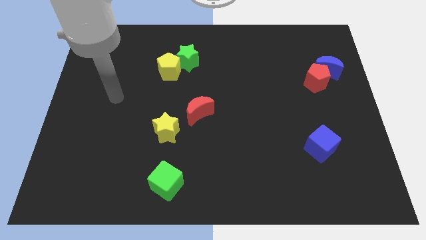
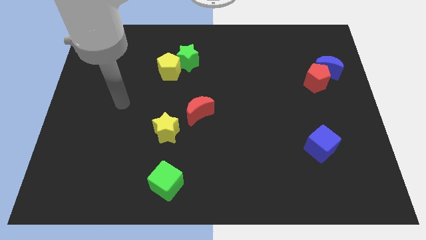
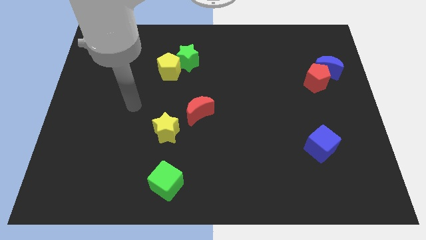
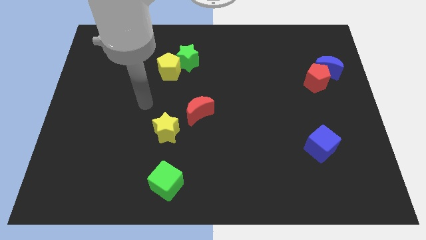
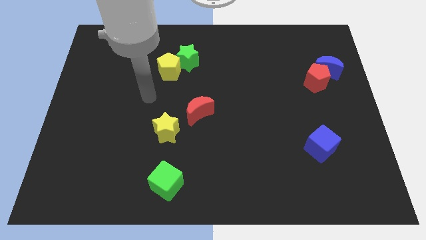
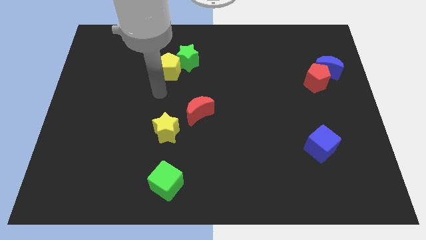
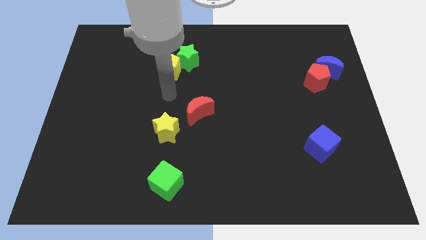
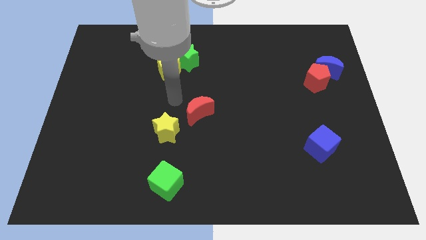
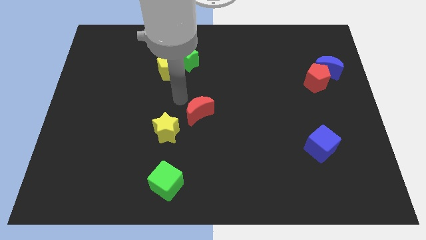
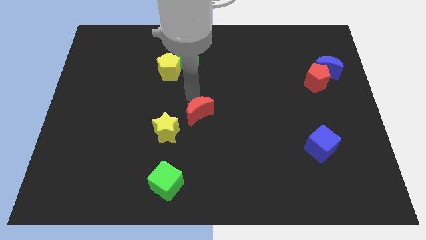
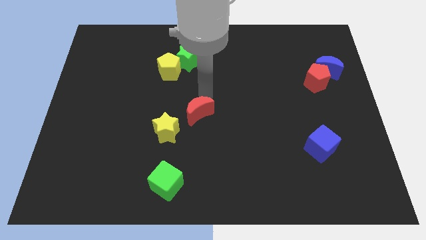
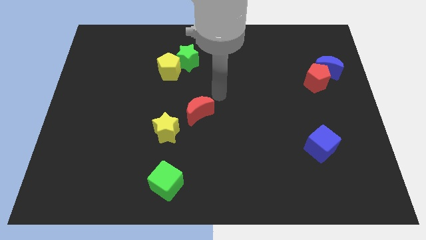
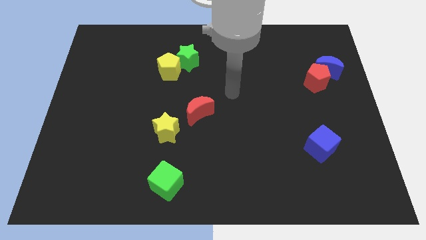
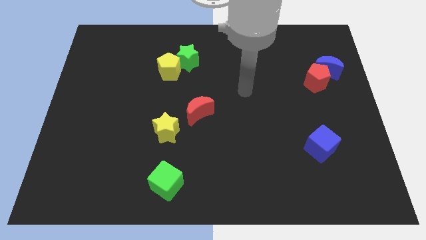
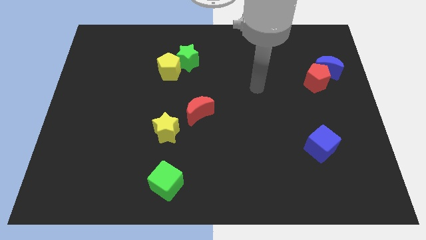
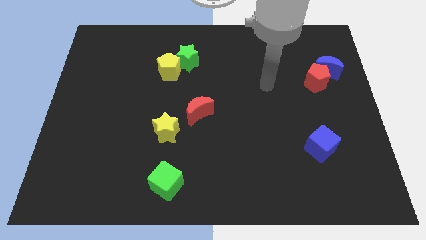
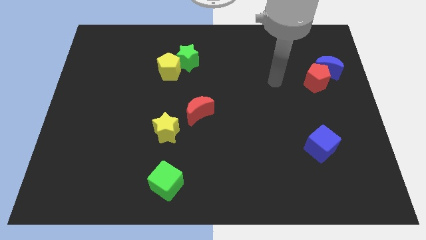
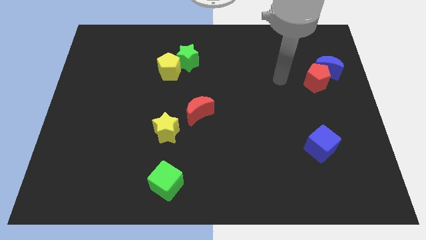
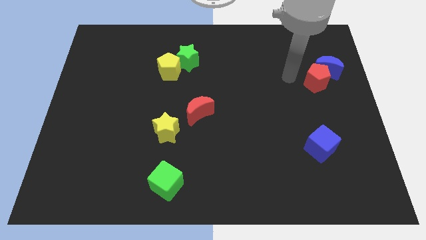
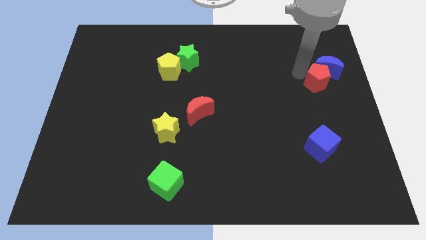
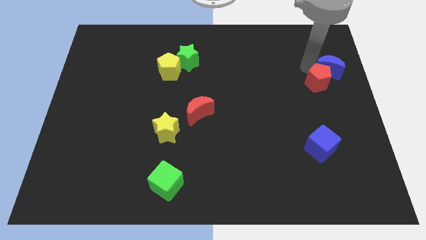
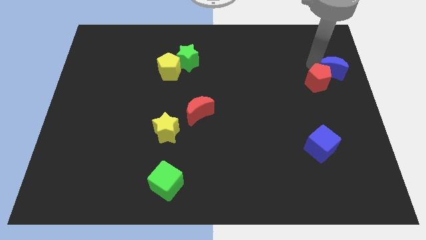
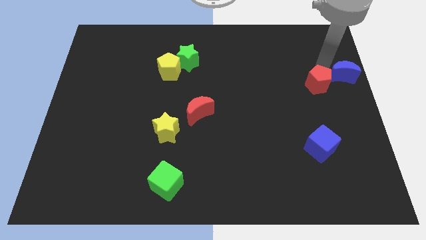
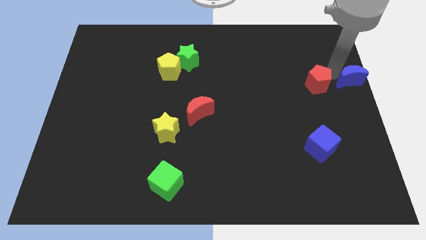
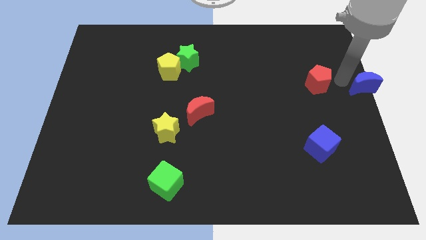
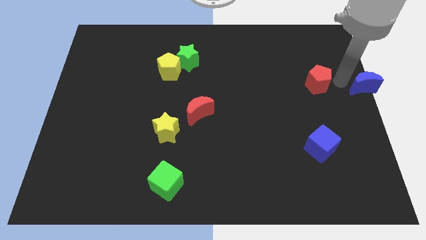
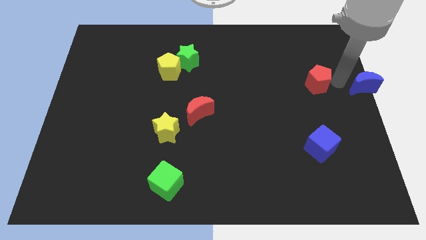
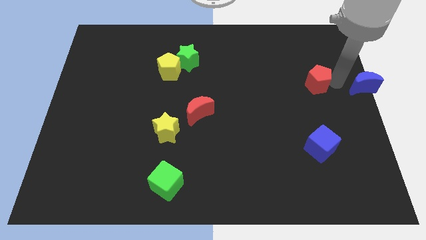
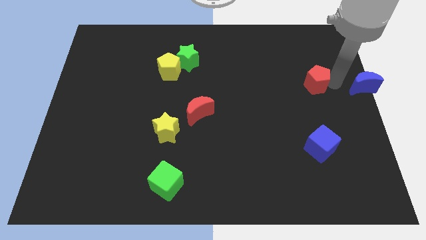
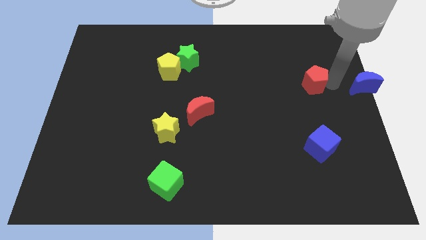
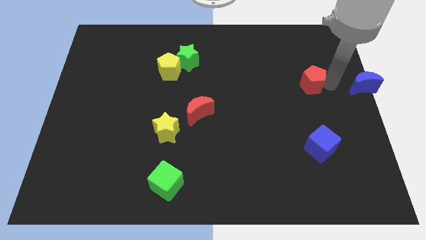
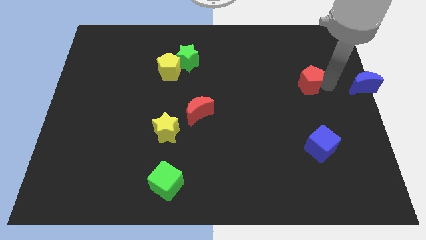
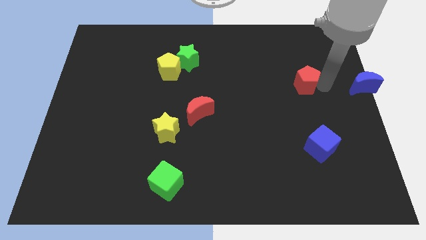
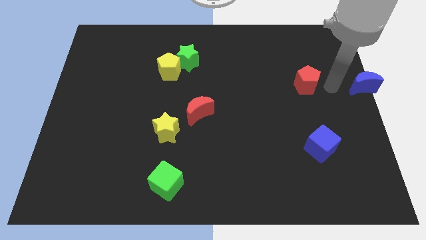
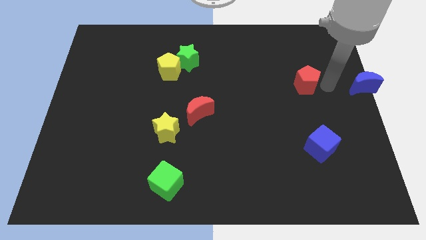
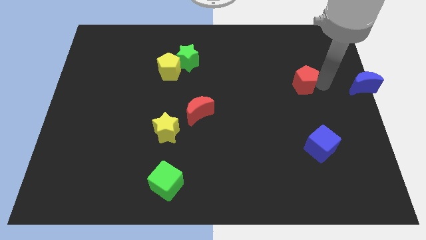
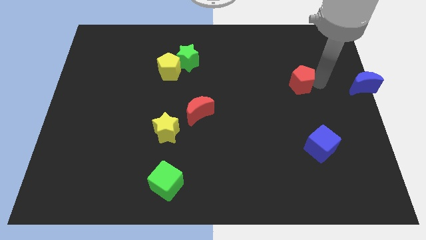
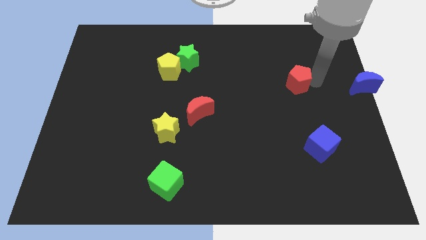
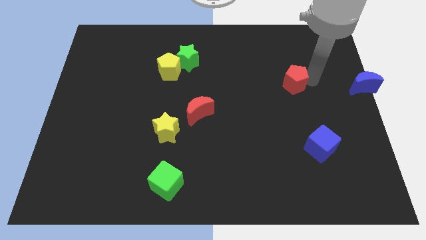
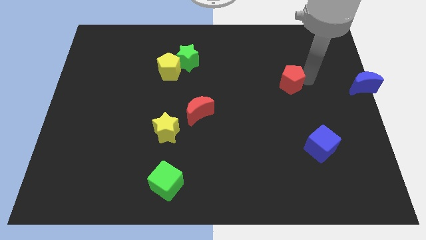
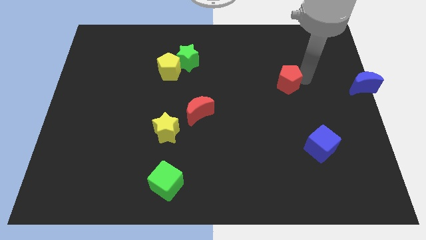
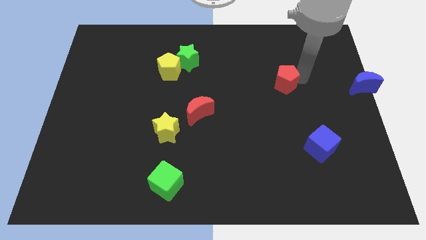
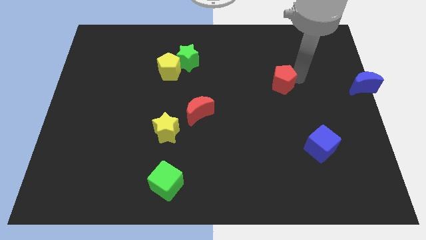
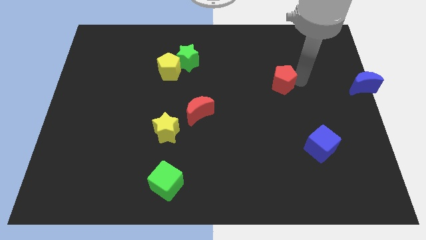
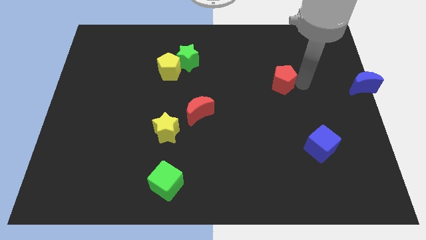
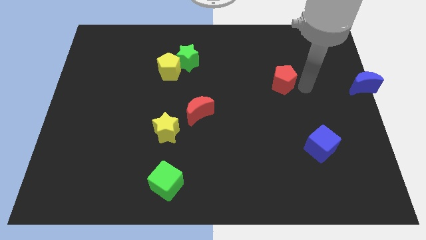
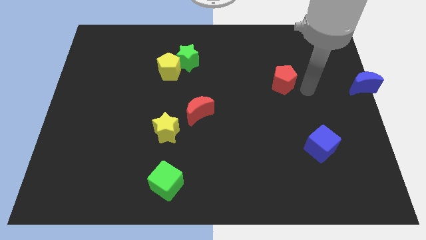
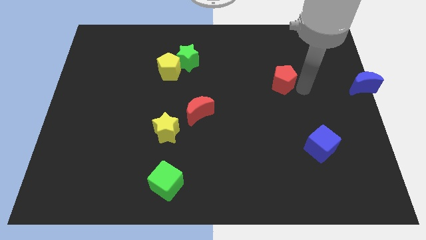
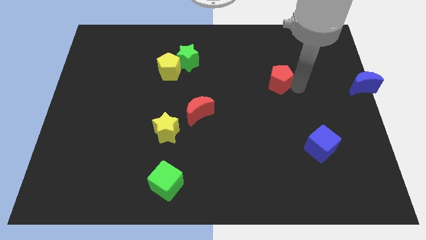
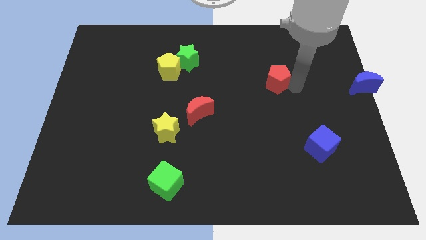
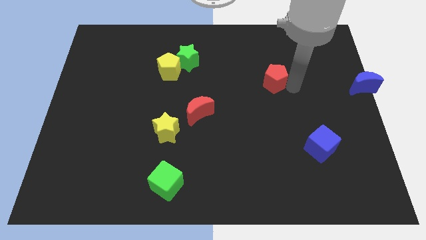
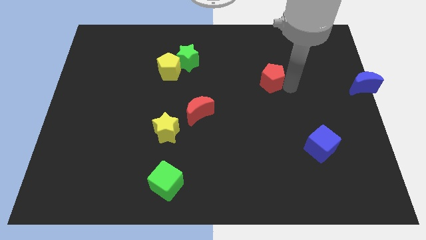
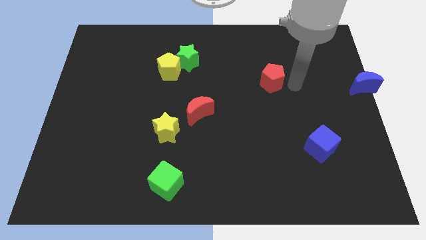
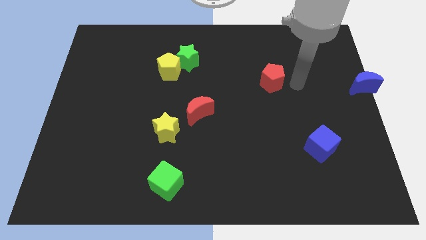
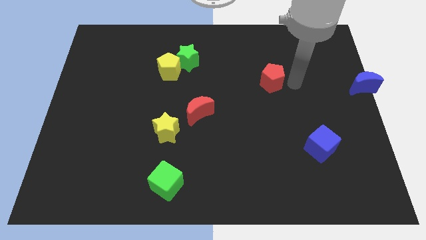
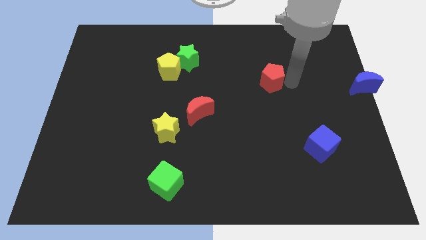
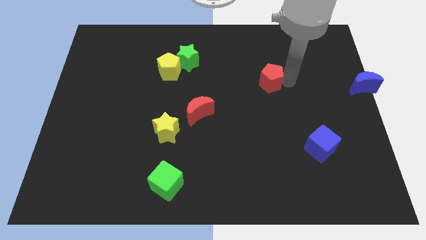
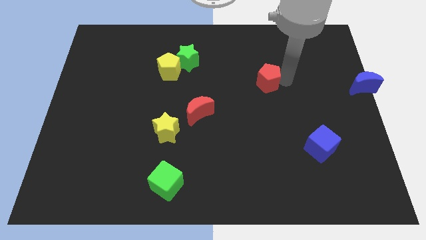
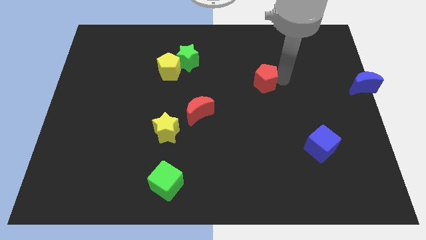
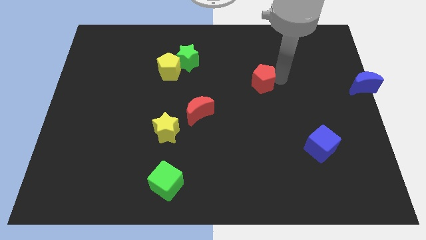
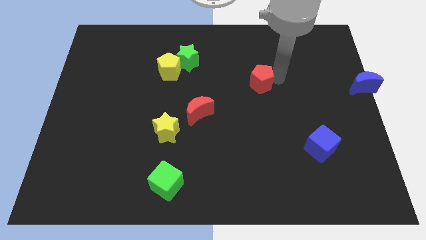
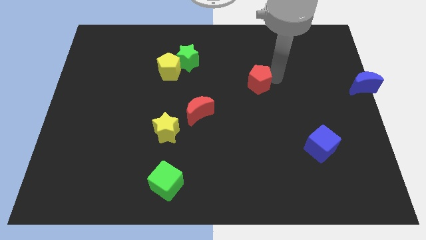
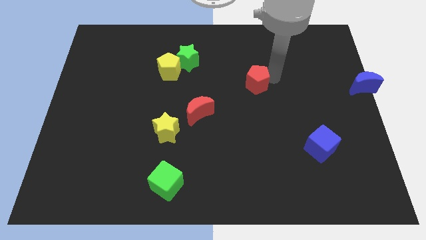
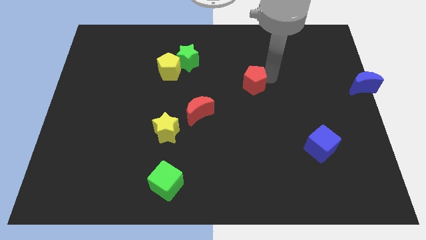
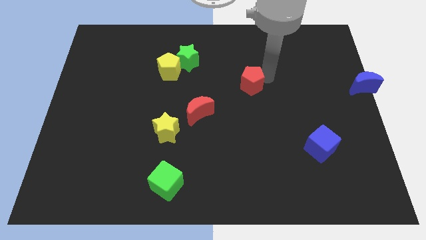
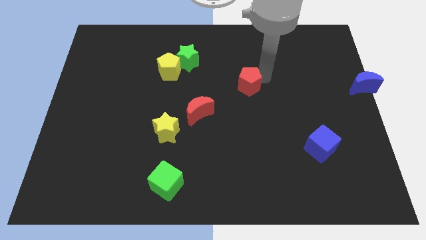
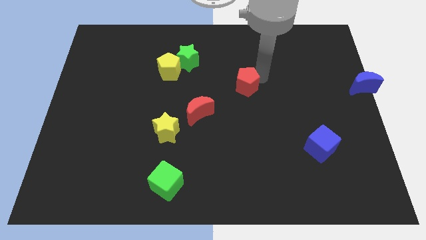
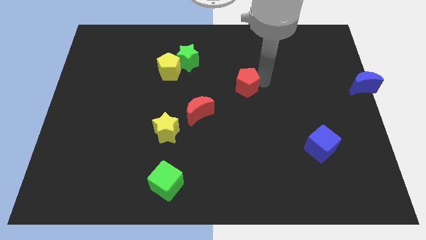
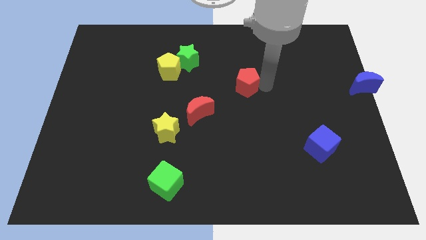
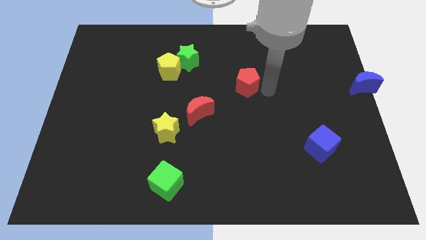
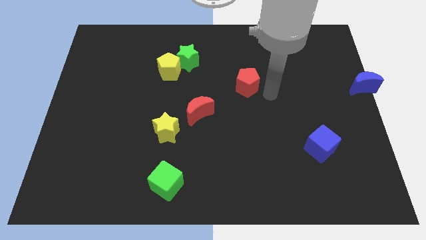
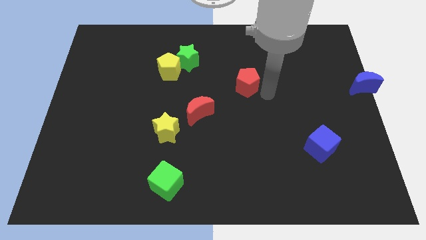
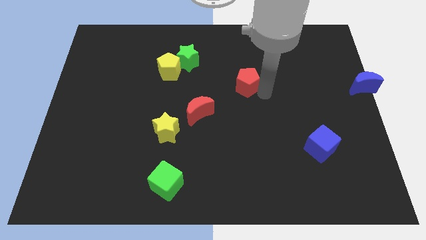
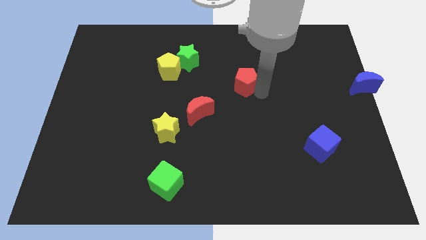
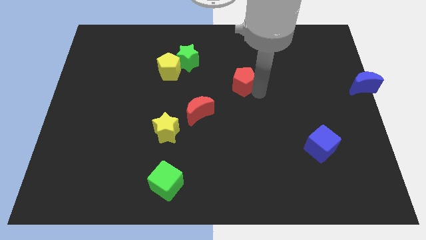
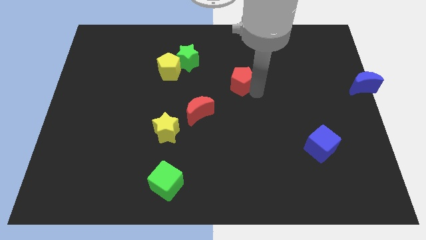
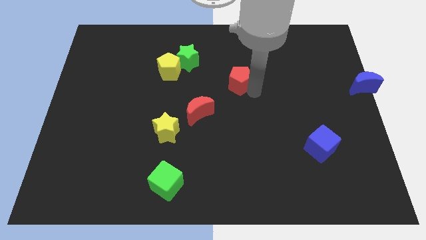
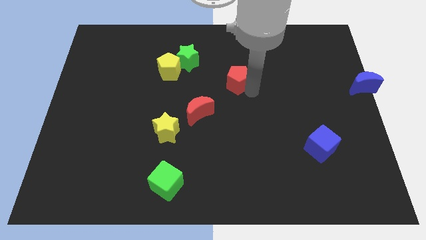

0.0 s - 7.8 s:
push the red pentagon left
